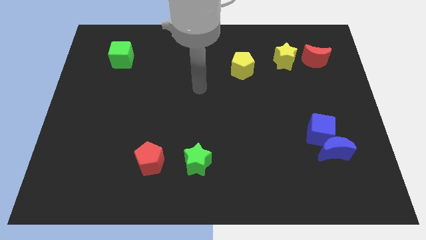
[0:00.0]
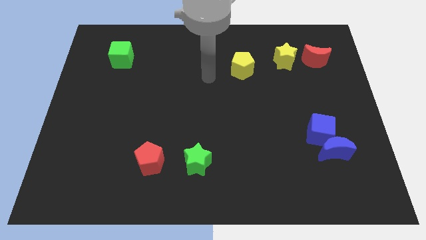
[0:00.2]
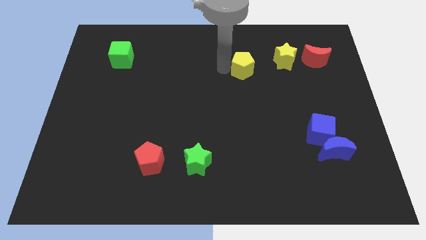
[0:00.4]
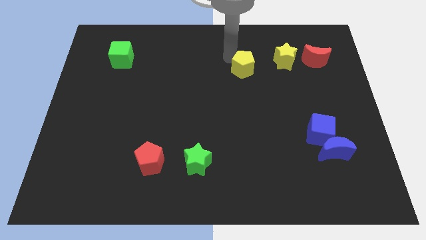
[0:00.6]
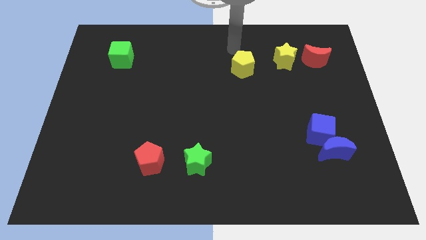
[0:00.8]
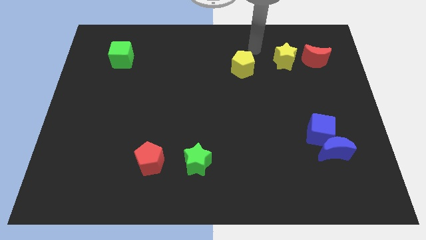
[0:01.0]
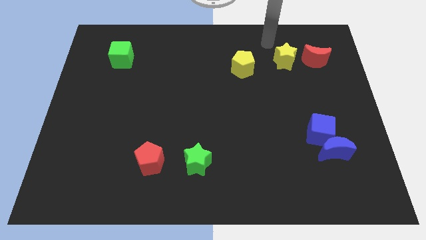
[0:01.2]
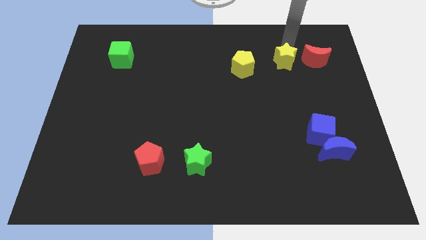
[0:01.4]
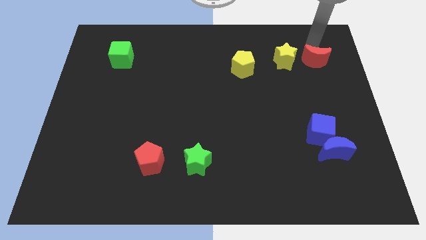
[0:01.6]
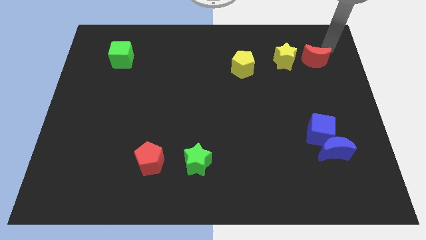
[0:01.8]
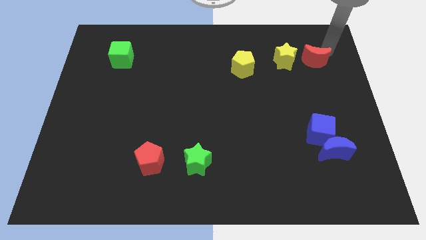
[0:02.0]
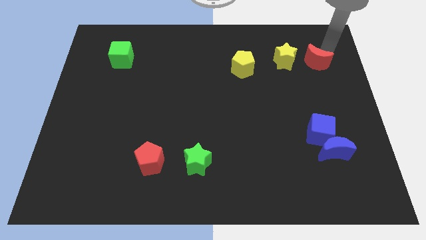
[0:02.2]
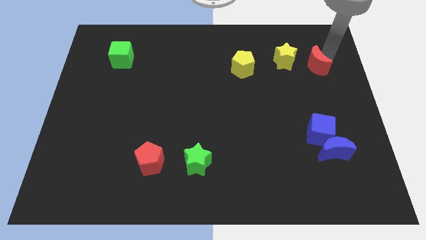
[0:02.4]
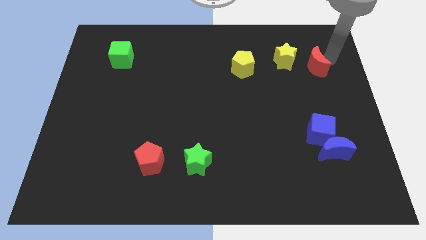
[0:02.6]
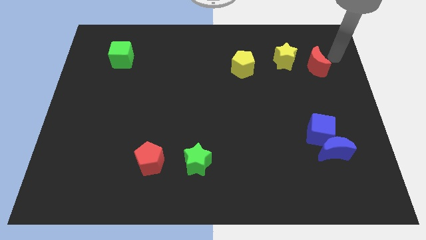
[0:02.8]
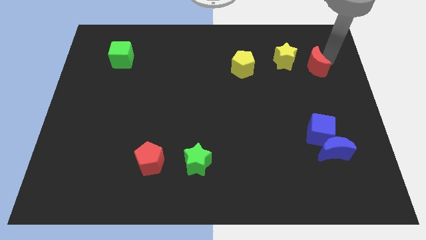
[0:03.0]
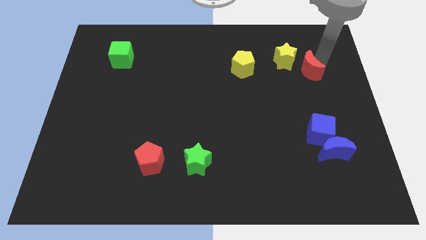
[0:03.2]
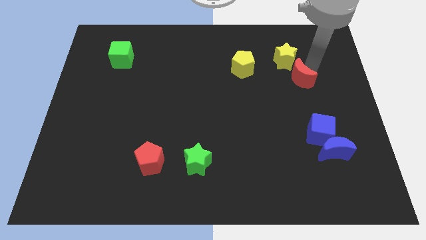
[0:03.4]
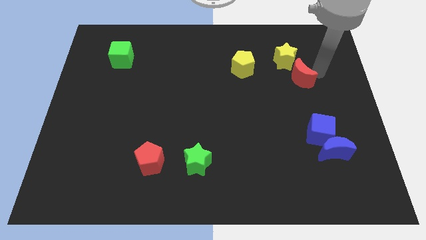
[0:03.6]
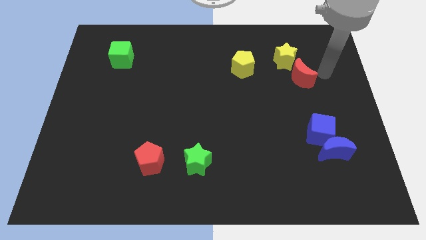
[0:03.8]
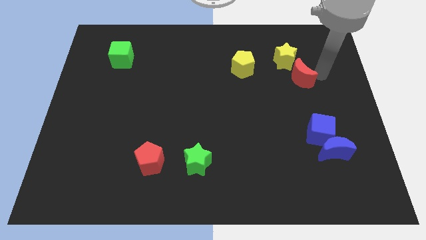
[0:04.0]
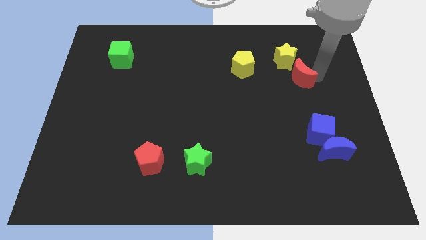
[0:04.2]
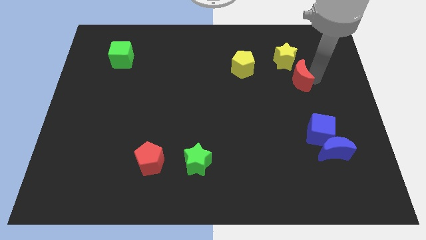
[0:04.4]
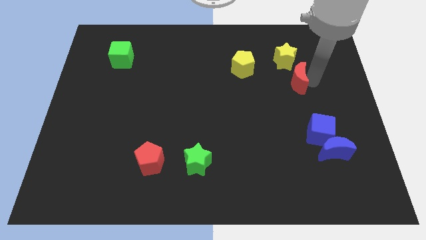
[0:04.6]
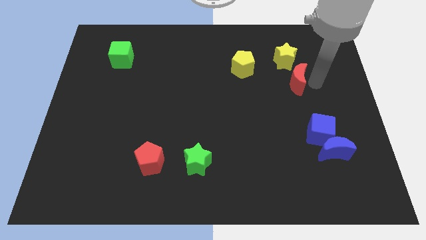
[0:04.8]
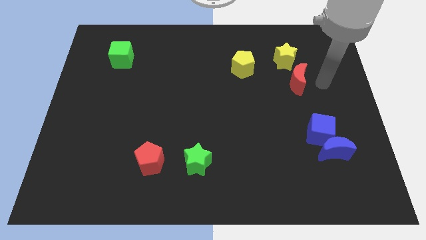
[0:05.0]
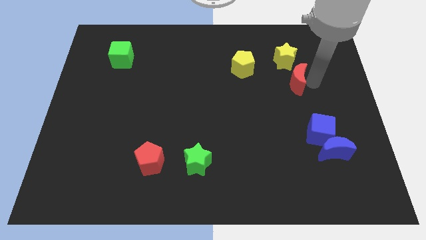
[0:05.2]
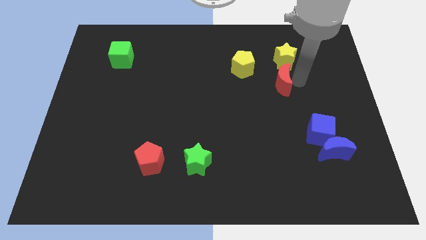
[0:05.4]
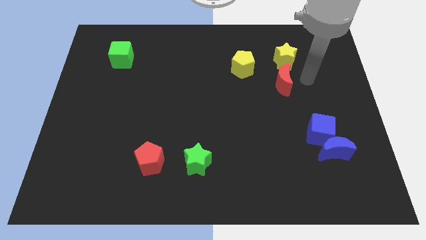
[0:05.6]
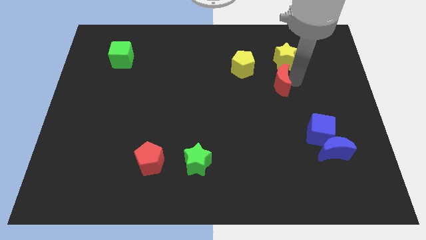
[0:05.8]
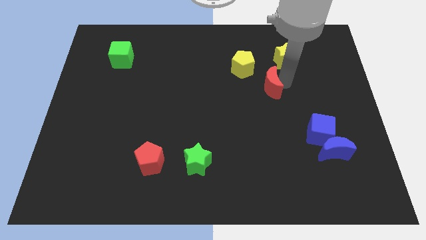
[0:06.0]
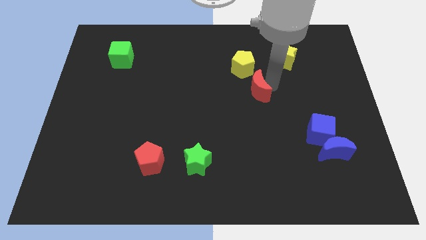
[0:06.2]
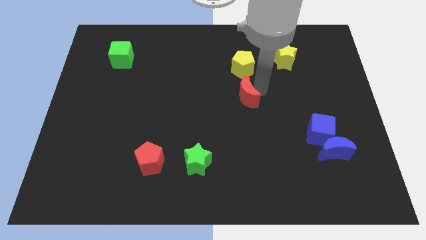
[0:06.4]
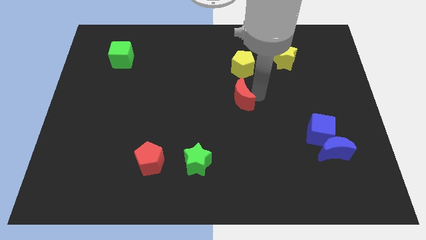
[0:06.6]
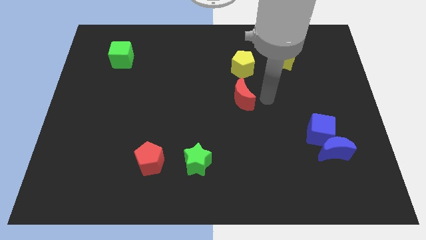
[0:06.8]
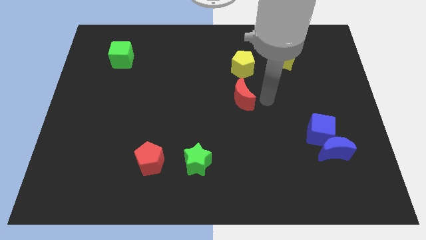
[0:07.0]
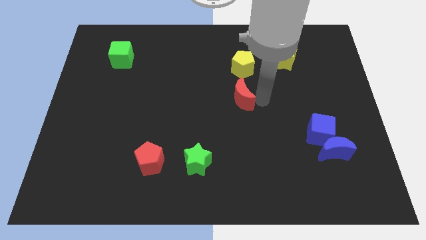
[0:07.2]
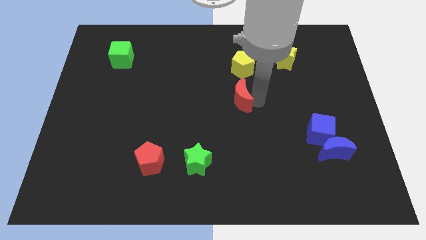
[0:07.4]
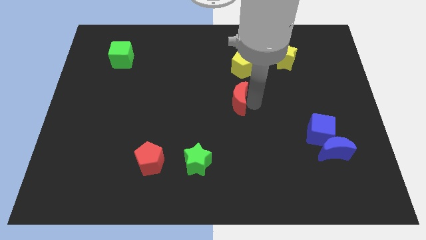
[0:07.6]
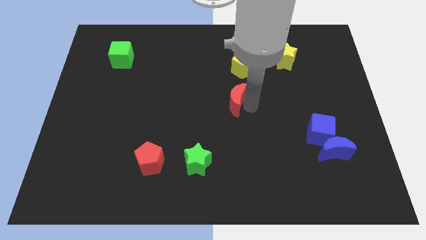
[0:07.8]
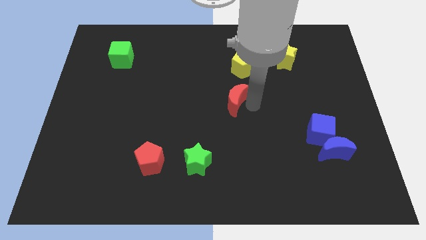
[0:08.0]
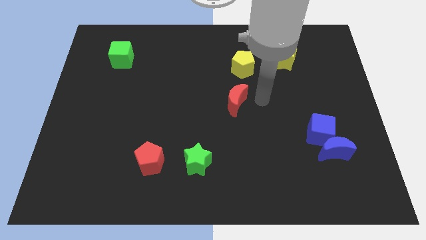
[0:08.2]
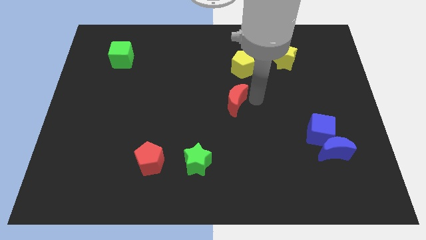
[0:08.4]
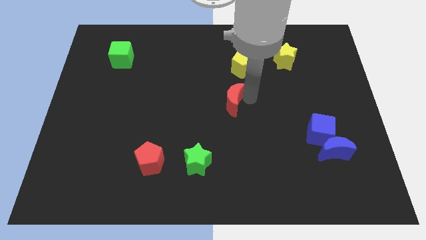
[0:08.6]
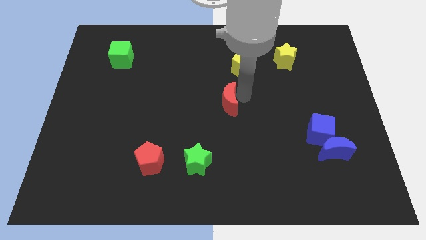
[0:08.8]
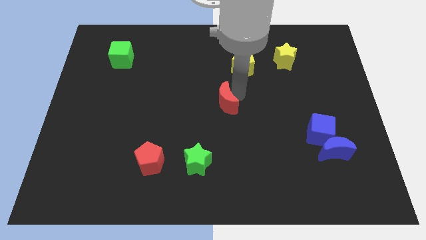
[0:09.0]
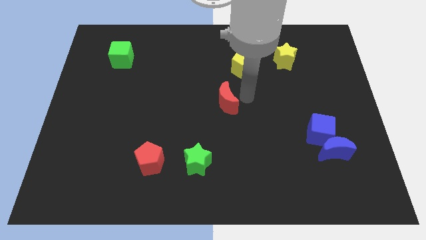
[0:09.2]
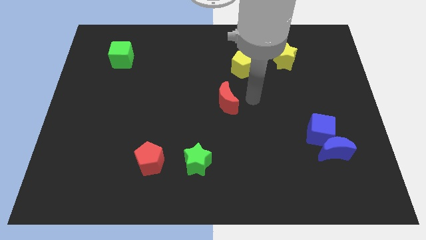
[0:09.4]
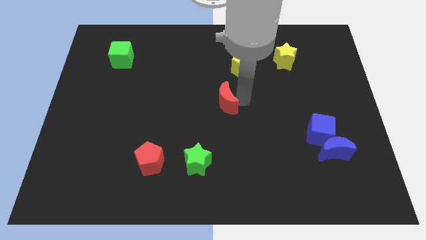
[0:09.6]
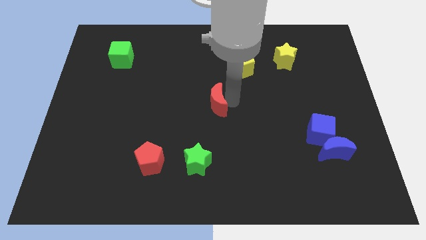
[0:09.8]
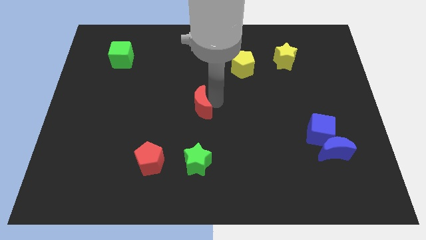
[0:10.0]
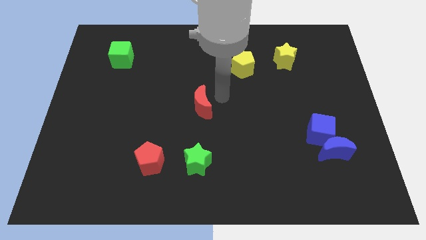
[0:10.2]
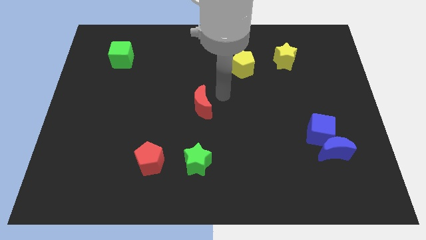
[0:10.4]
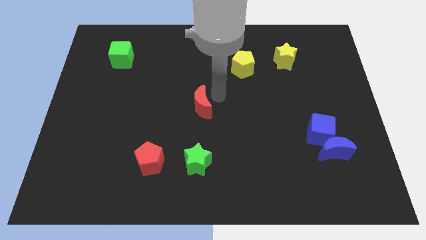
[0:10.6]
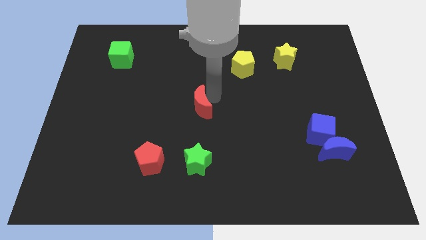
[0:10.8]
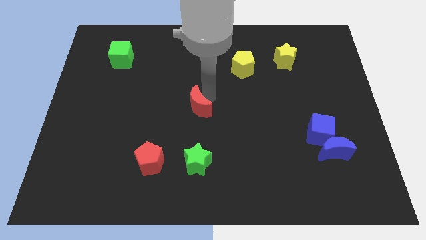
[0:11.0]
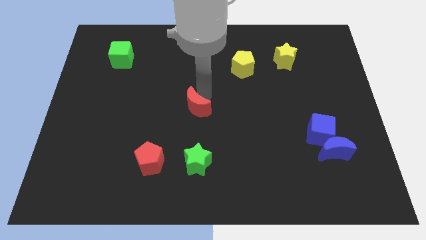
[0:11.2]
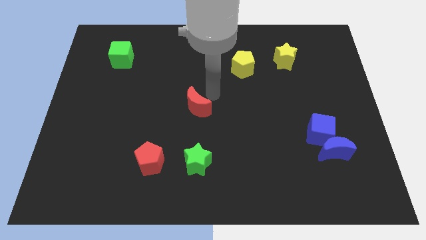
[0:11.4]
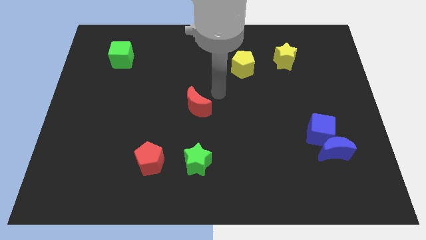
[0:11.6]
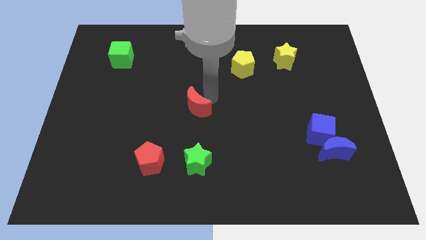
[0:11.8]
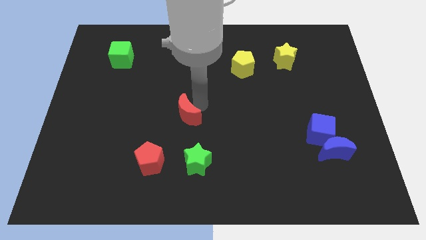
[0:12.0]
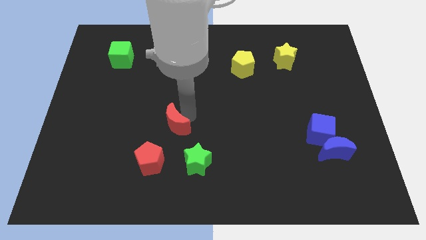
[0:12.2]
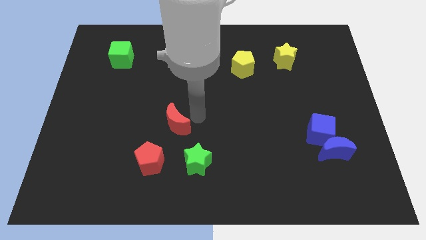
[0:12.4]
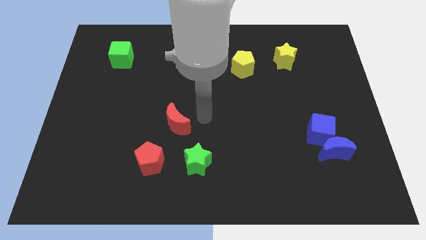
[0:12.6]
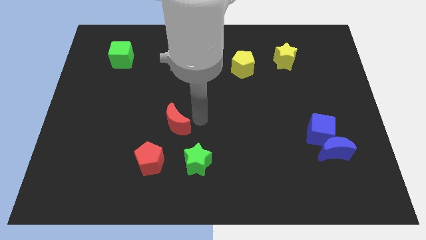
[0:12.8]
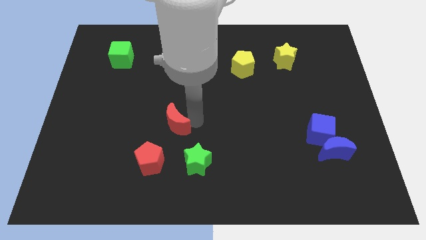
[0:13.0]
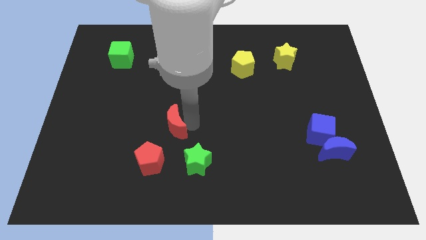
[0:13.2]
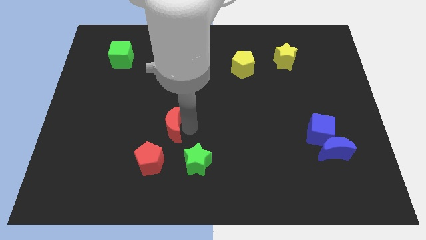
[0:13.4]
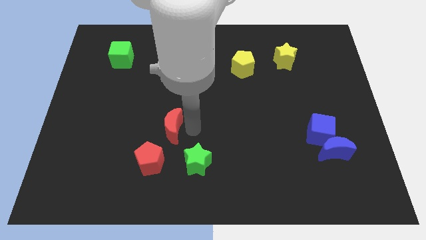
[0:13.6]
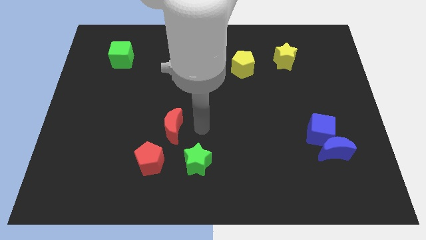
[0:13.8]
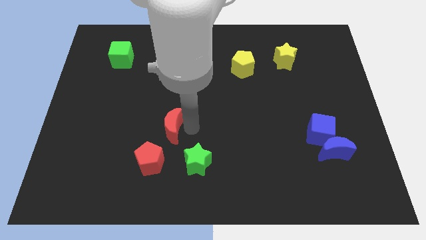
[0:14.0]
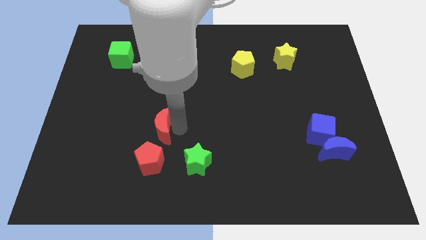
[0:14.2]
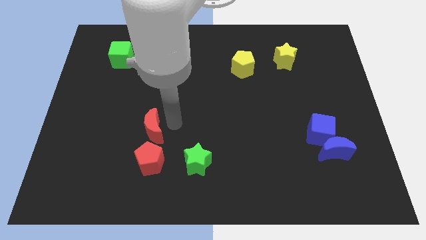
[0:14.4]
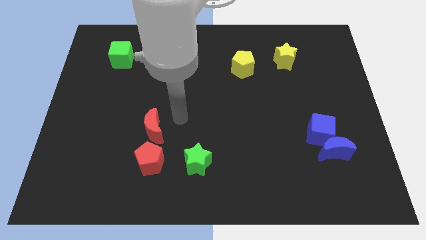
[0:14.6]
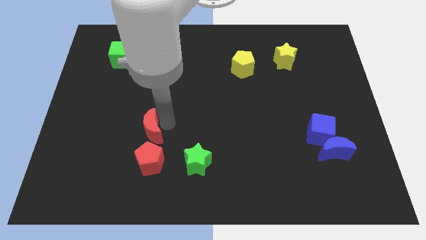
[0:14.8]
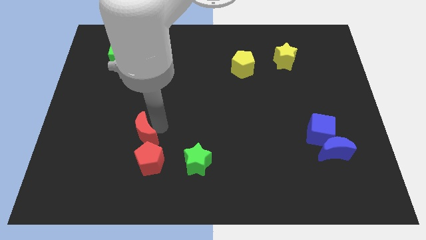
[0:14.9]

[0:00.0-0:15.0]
push the red moon to the top left side of the red pentagon
